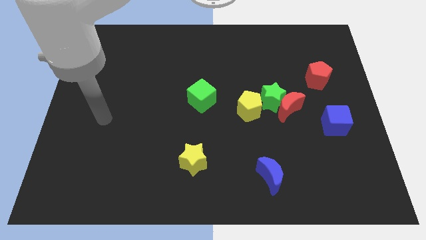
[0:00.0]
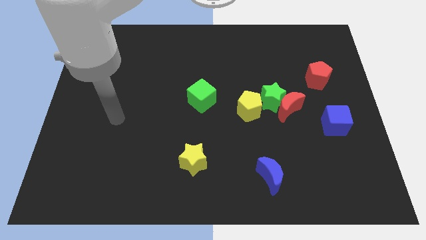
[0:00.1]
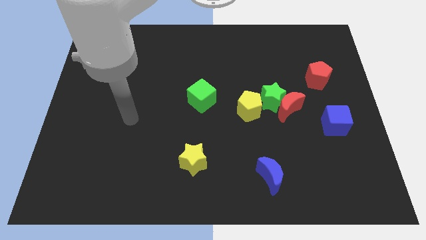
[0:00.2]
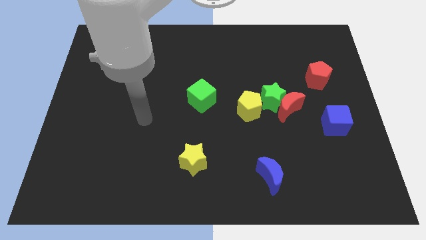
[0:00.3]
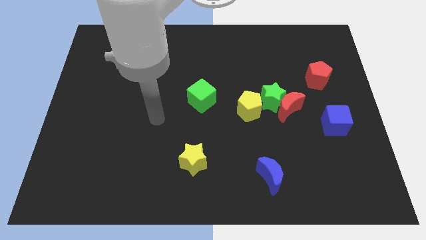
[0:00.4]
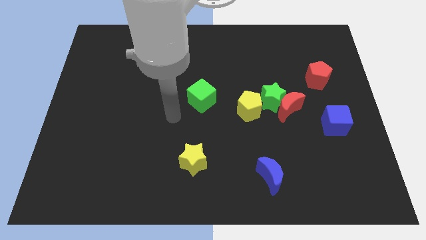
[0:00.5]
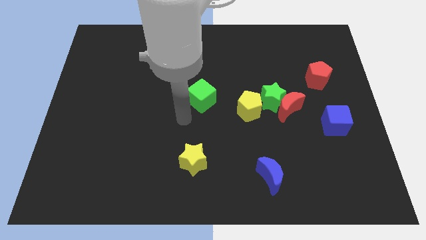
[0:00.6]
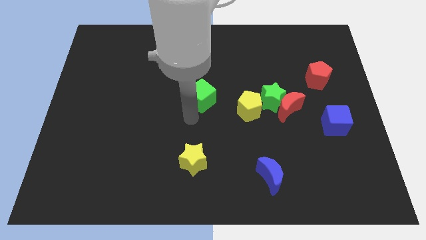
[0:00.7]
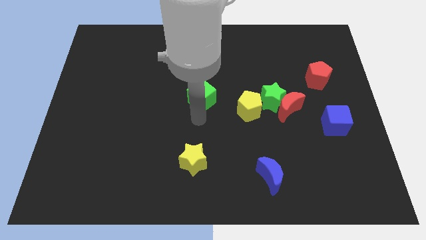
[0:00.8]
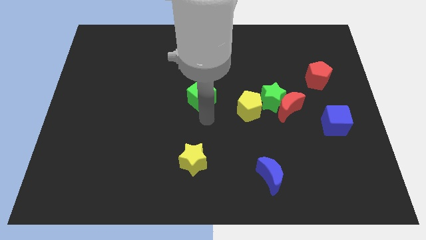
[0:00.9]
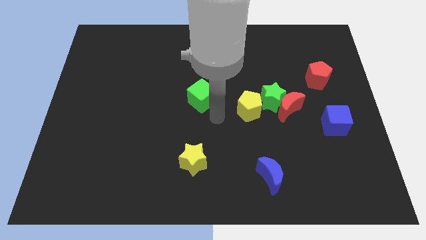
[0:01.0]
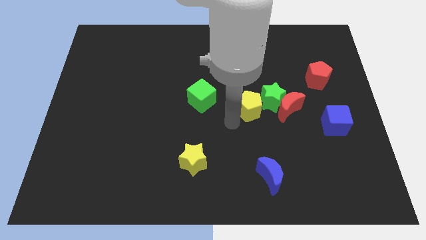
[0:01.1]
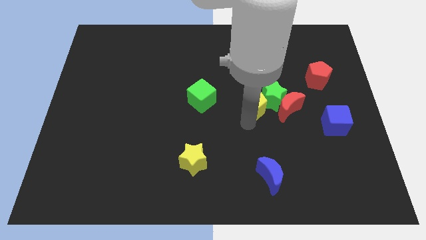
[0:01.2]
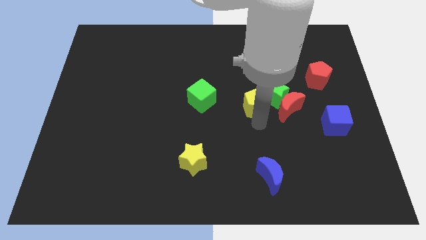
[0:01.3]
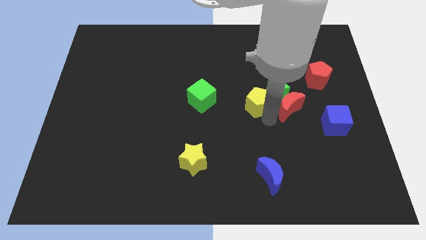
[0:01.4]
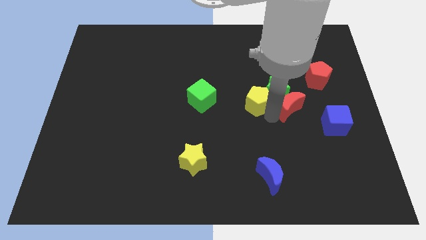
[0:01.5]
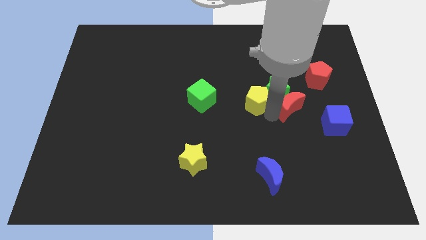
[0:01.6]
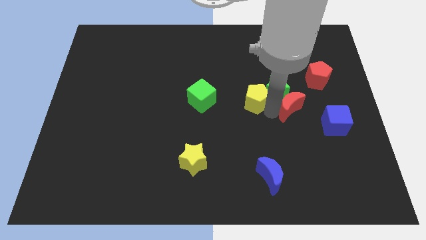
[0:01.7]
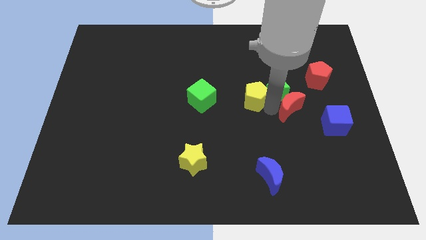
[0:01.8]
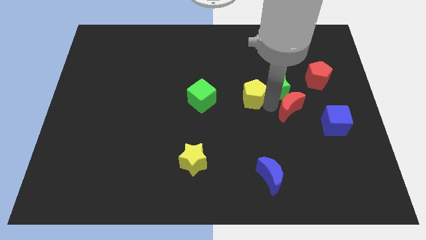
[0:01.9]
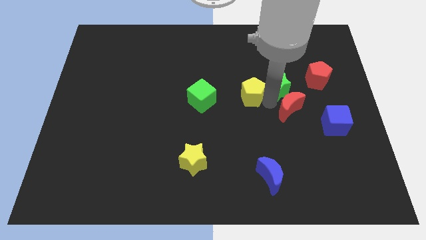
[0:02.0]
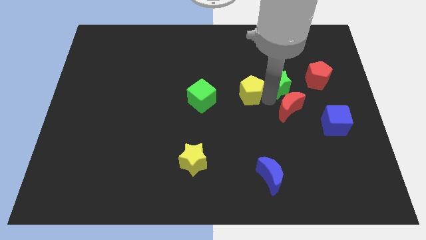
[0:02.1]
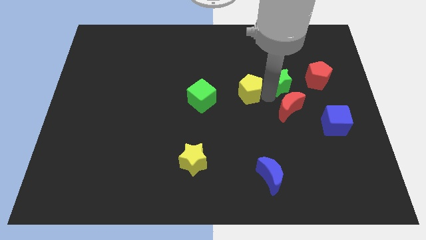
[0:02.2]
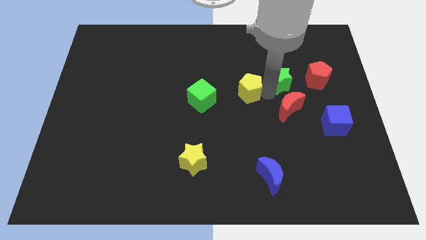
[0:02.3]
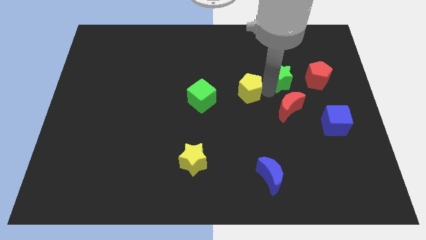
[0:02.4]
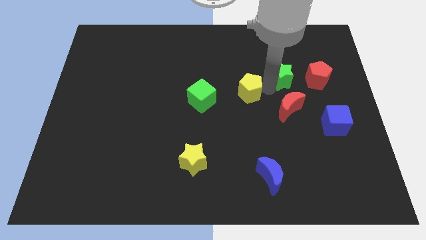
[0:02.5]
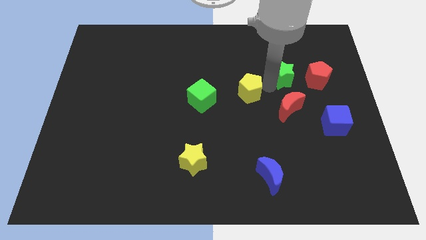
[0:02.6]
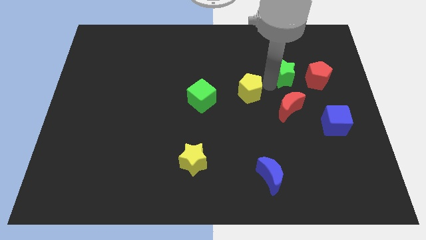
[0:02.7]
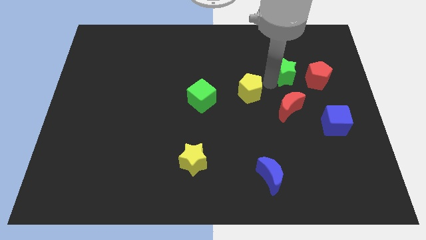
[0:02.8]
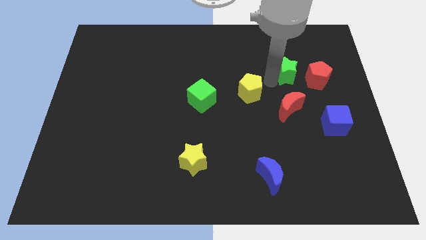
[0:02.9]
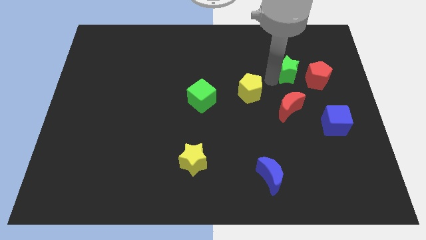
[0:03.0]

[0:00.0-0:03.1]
move the green star away from the red moon and yellow pentagon

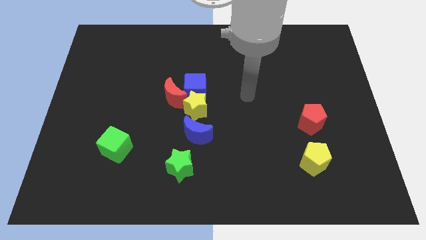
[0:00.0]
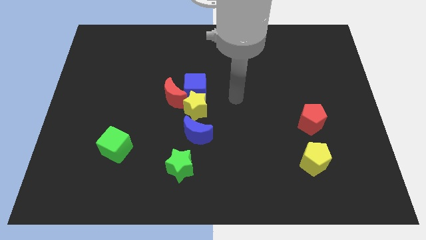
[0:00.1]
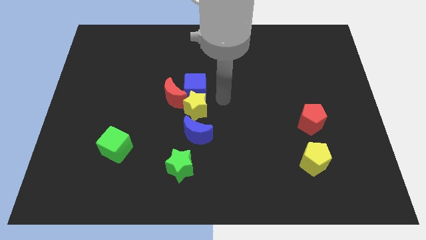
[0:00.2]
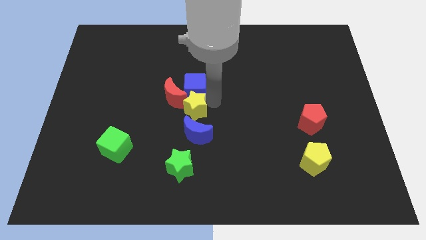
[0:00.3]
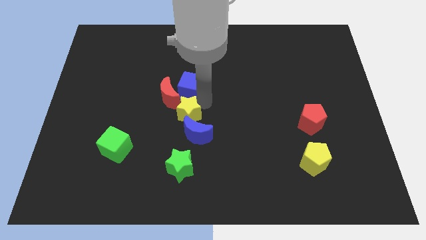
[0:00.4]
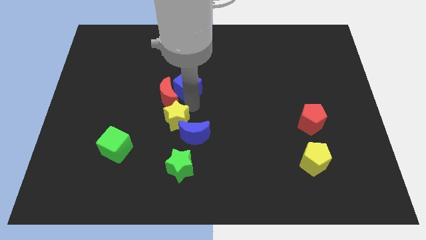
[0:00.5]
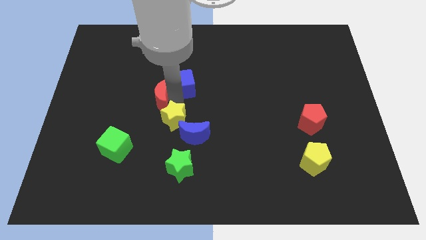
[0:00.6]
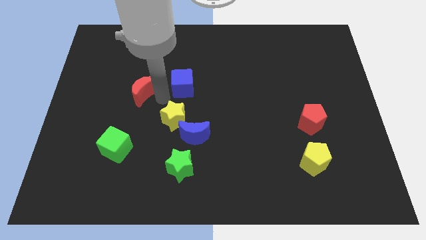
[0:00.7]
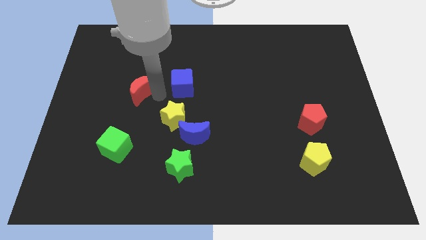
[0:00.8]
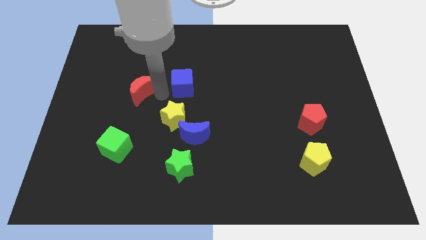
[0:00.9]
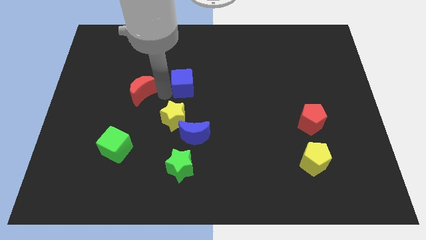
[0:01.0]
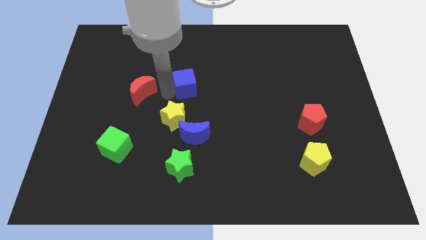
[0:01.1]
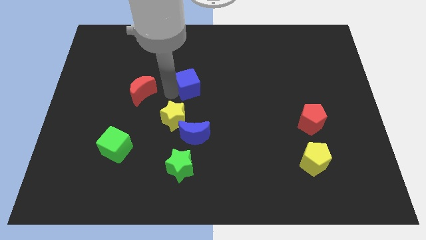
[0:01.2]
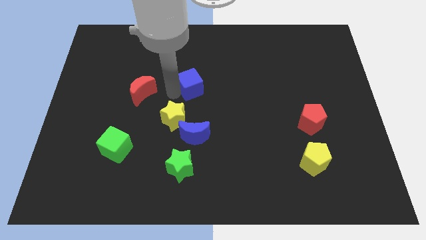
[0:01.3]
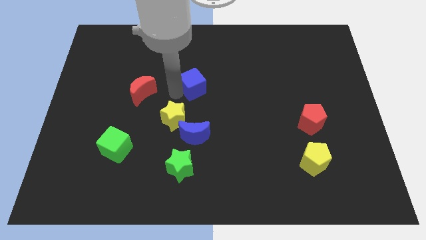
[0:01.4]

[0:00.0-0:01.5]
separate the blue cube from the red moon and yellow star

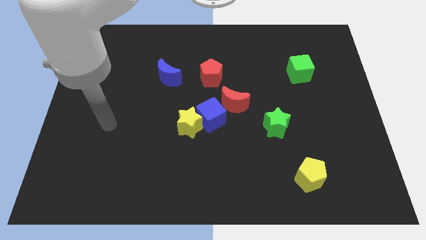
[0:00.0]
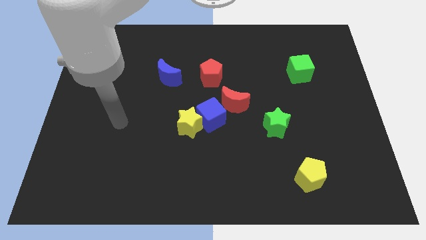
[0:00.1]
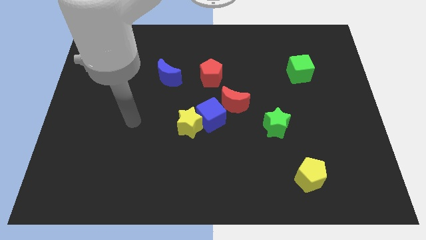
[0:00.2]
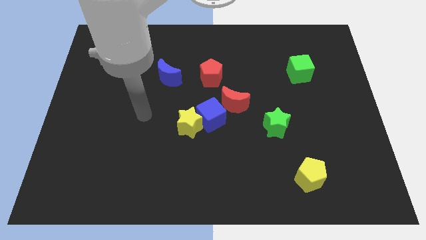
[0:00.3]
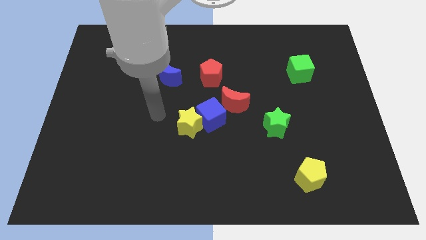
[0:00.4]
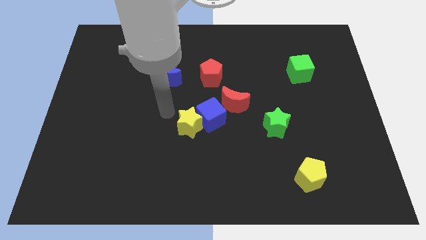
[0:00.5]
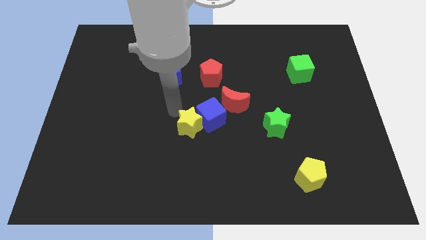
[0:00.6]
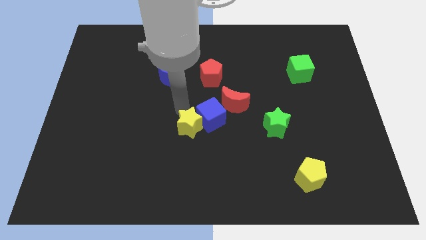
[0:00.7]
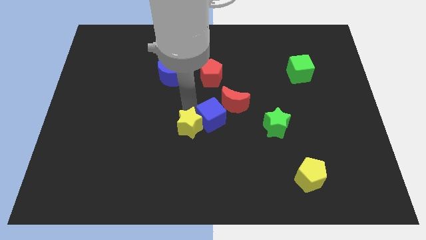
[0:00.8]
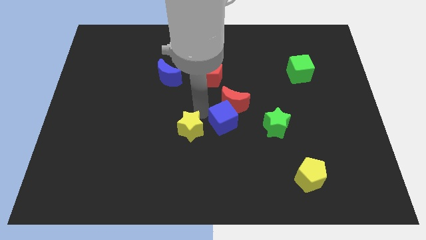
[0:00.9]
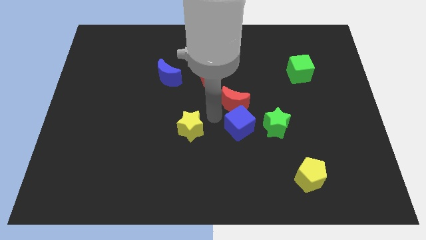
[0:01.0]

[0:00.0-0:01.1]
move the yellow star away from the blue cube

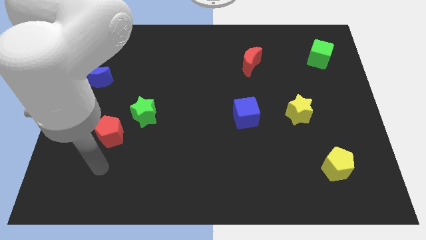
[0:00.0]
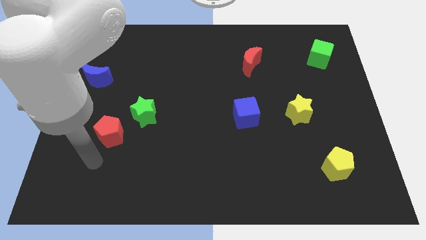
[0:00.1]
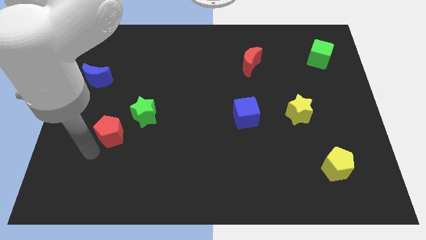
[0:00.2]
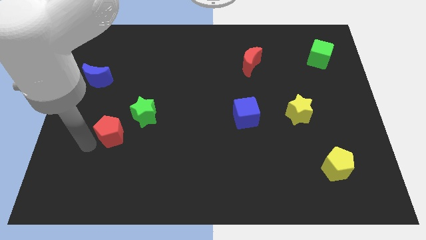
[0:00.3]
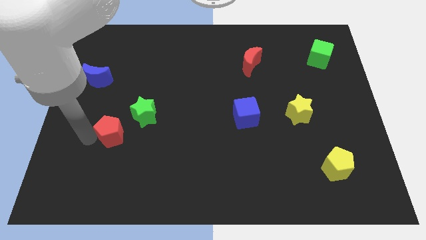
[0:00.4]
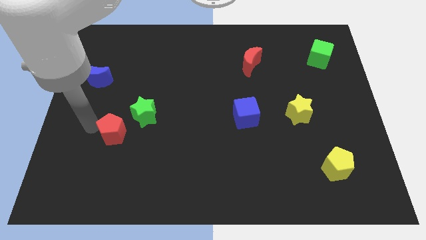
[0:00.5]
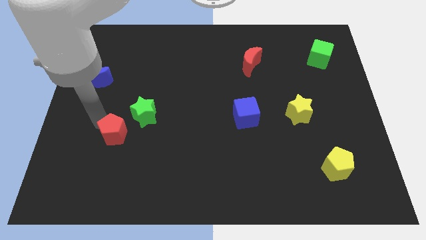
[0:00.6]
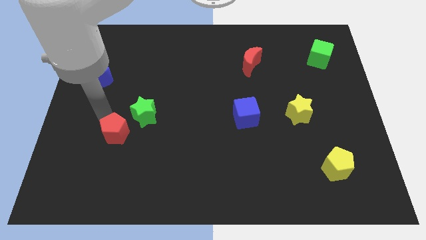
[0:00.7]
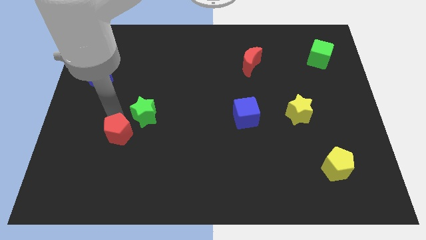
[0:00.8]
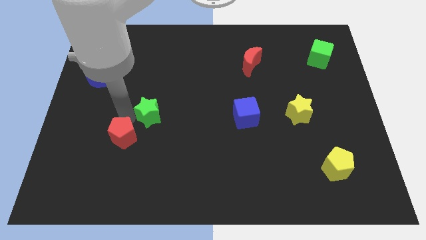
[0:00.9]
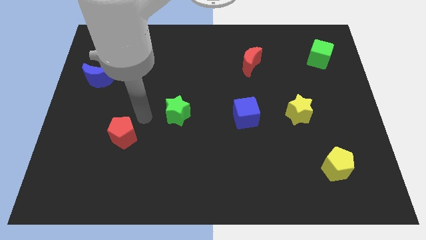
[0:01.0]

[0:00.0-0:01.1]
pull the red pentagon apart from the green star

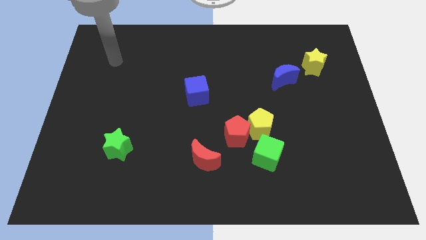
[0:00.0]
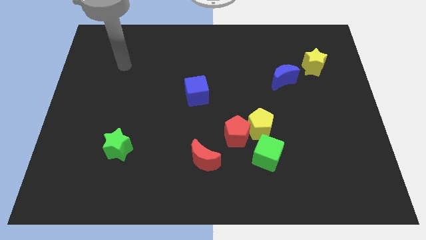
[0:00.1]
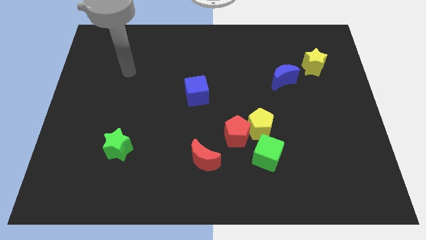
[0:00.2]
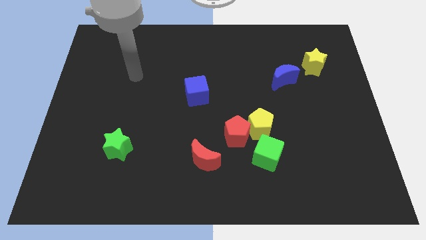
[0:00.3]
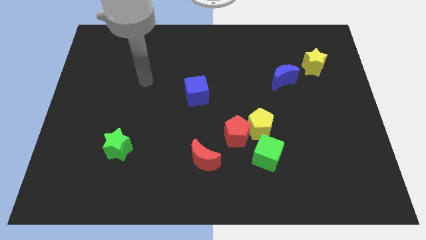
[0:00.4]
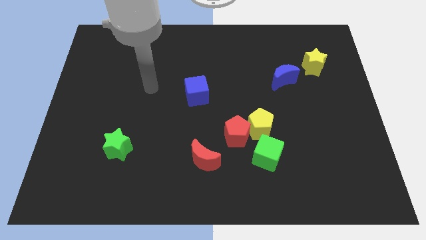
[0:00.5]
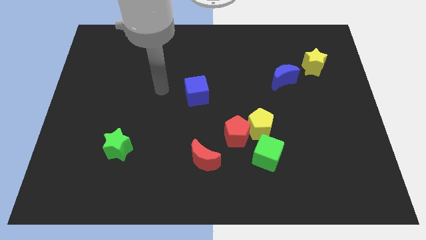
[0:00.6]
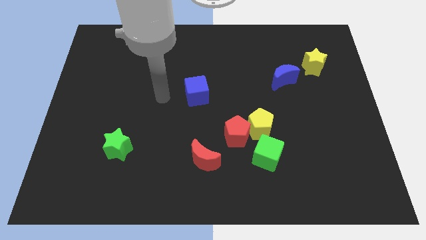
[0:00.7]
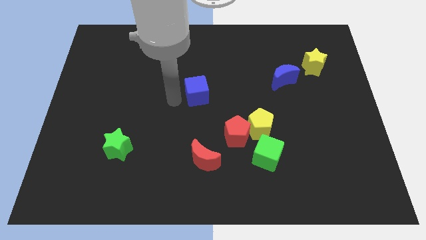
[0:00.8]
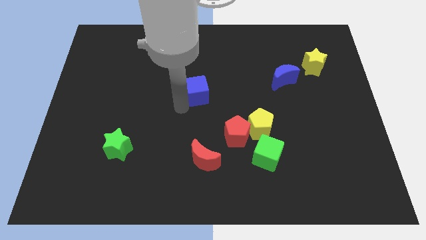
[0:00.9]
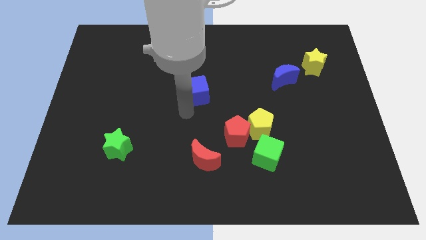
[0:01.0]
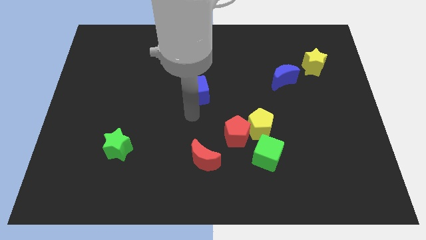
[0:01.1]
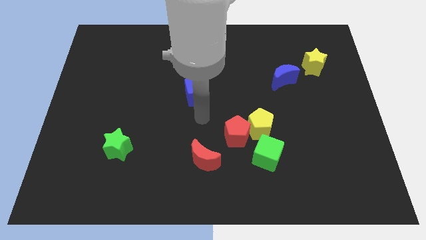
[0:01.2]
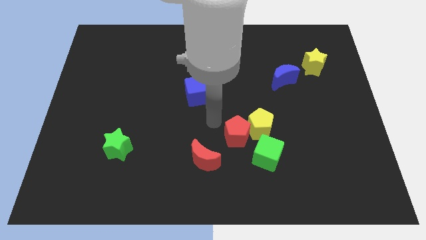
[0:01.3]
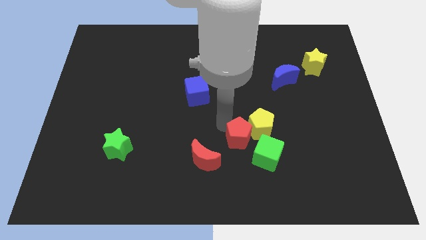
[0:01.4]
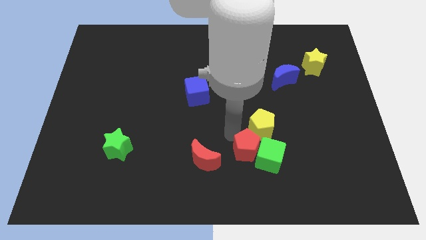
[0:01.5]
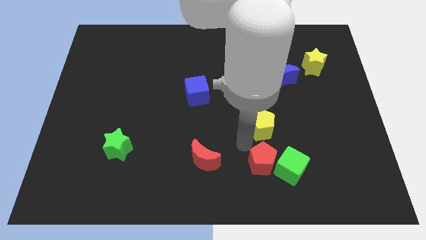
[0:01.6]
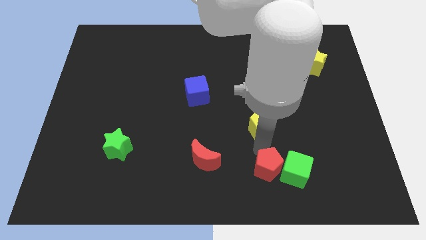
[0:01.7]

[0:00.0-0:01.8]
pull the yellow pentagon apart from the red pentagon and green cube

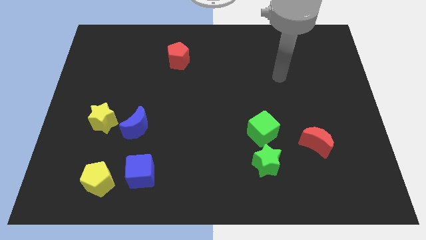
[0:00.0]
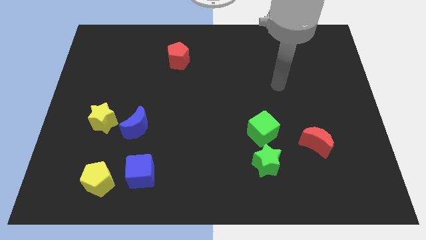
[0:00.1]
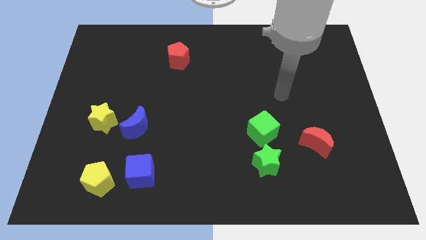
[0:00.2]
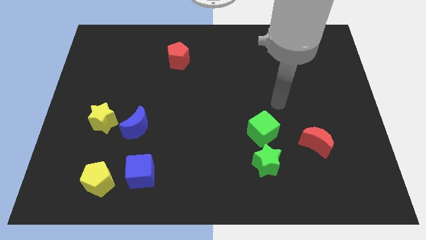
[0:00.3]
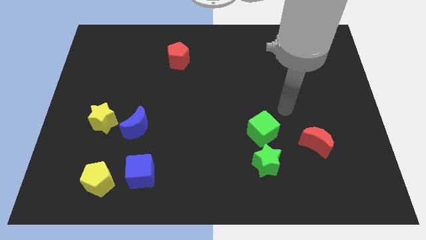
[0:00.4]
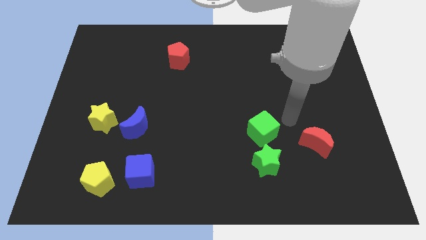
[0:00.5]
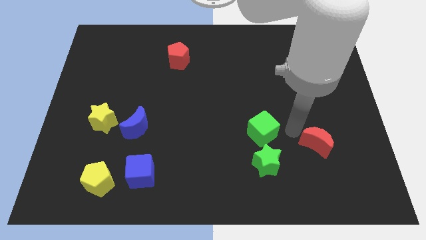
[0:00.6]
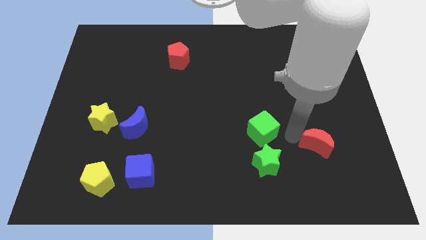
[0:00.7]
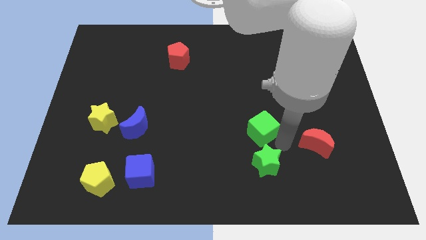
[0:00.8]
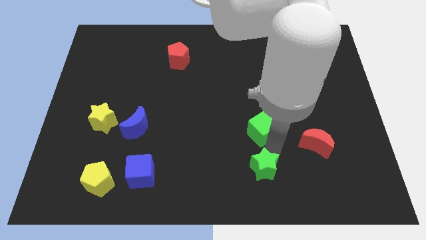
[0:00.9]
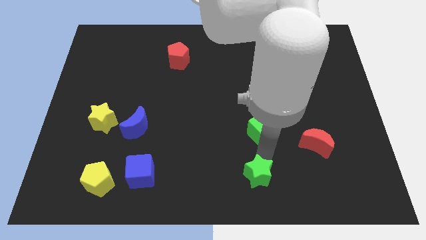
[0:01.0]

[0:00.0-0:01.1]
separate the green cube from the green star
